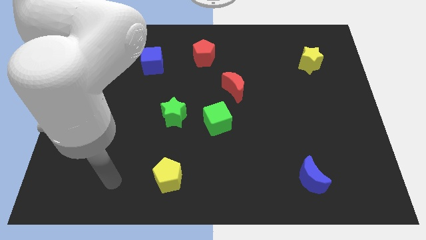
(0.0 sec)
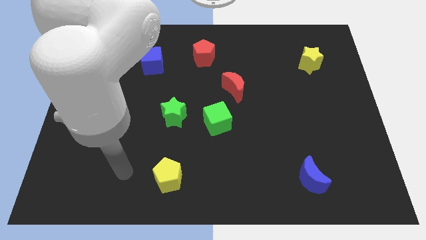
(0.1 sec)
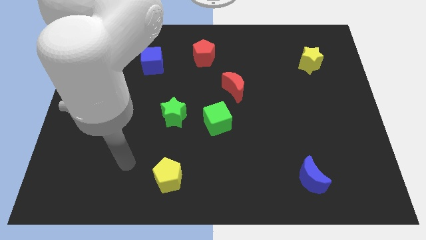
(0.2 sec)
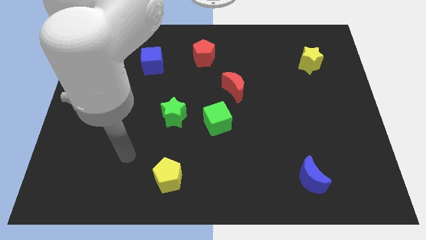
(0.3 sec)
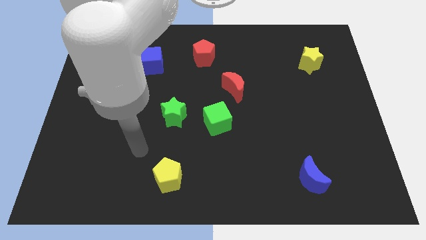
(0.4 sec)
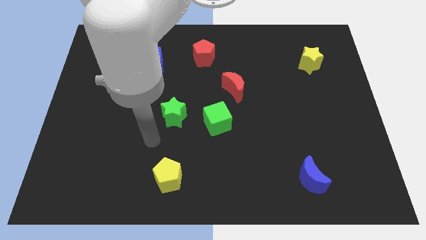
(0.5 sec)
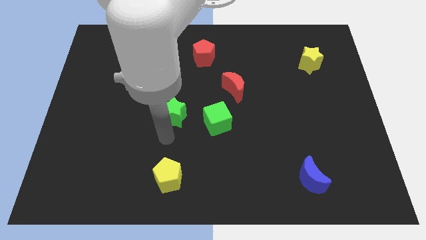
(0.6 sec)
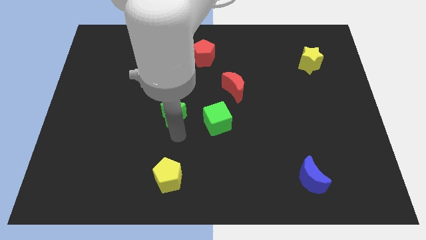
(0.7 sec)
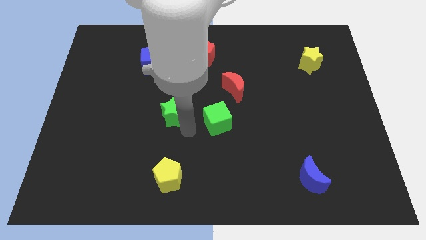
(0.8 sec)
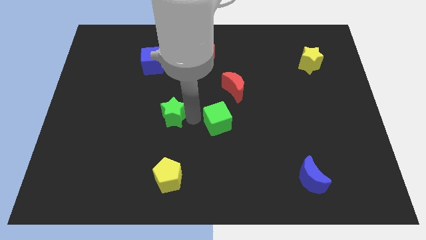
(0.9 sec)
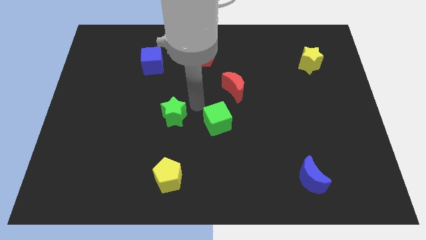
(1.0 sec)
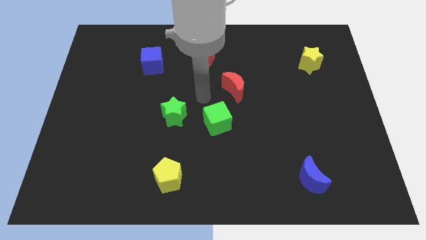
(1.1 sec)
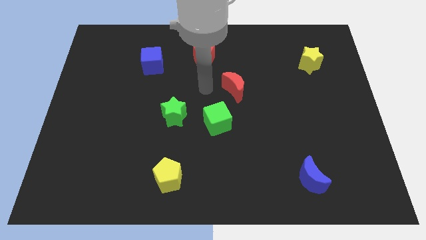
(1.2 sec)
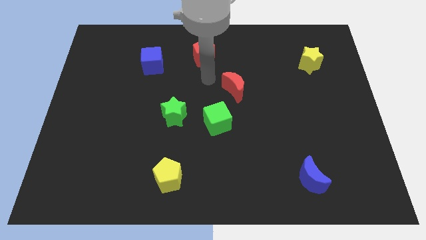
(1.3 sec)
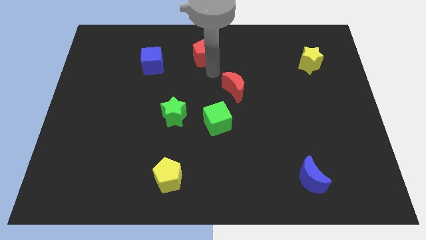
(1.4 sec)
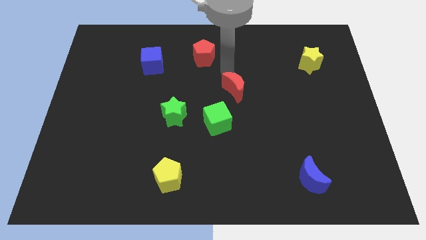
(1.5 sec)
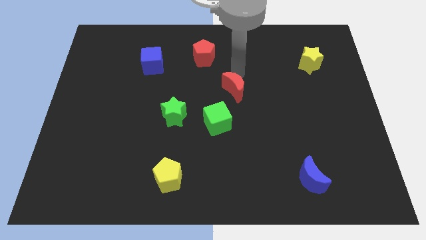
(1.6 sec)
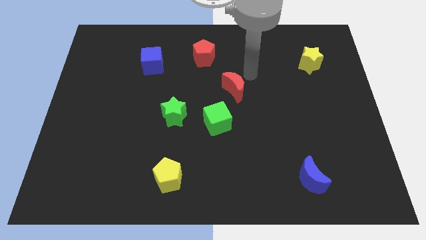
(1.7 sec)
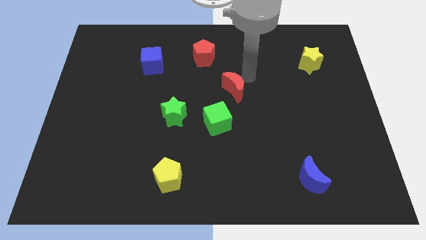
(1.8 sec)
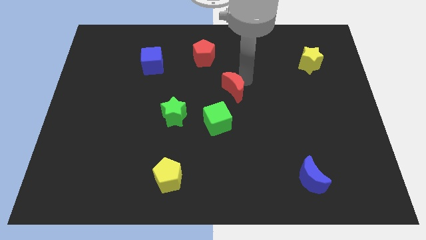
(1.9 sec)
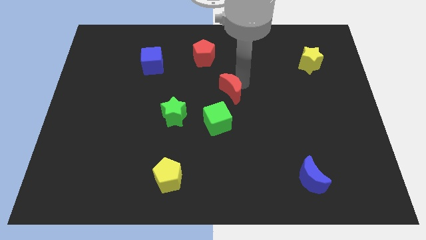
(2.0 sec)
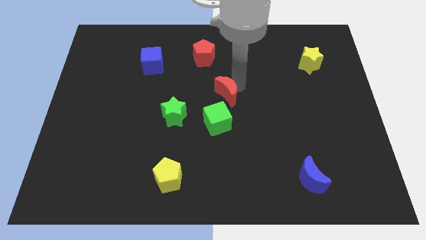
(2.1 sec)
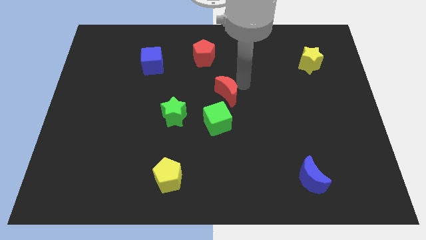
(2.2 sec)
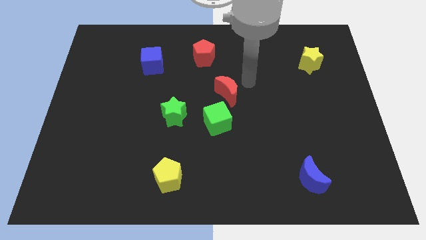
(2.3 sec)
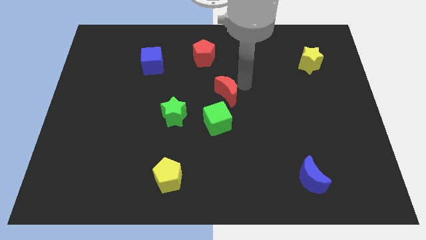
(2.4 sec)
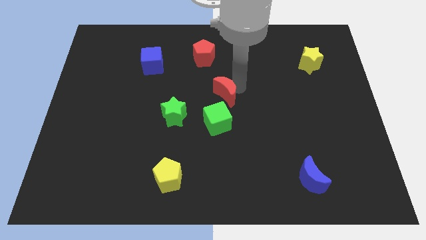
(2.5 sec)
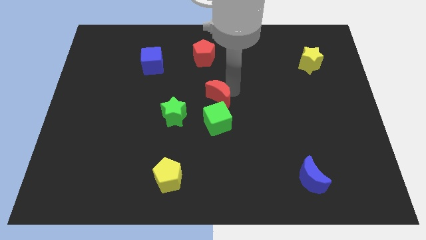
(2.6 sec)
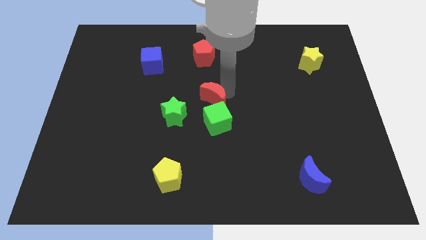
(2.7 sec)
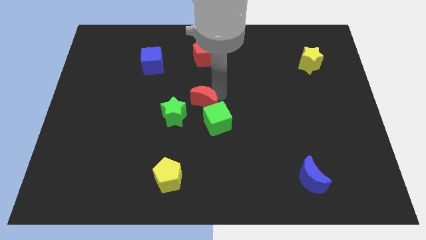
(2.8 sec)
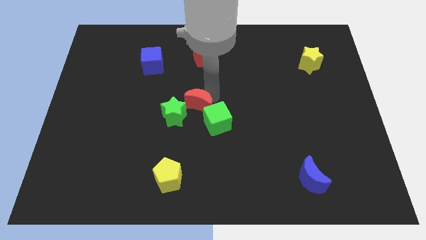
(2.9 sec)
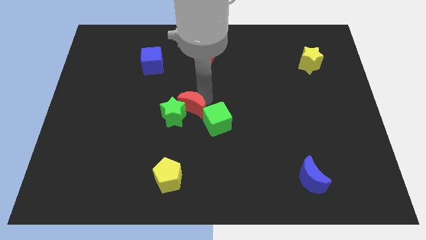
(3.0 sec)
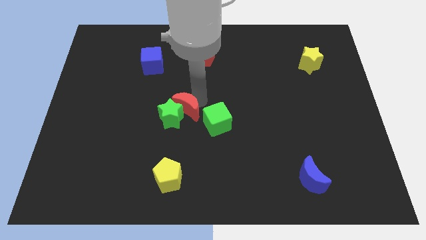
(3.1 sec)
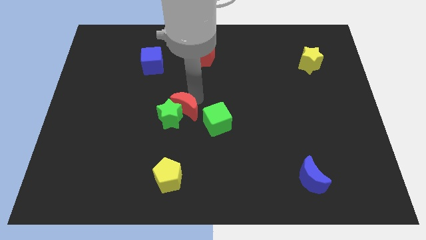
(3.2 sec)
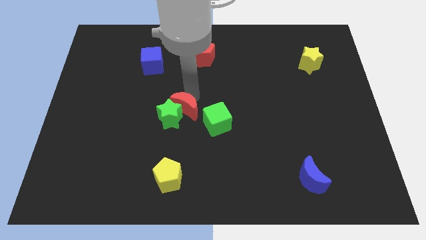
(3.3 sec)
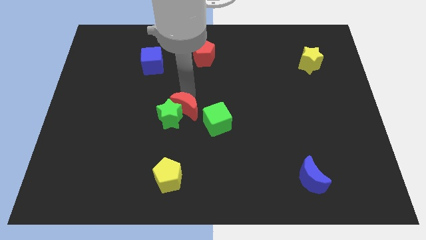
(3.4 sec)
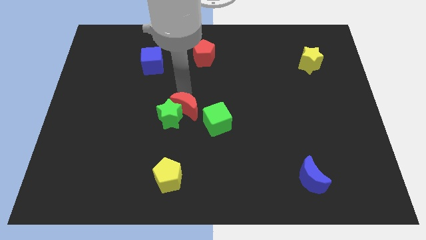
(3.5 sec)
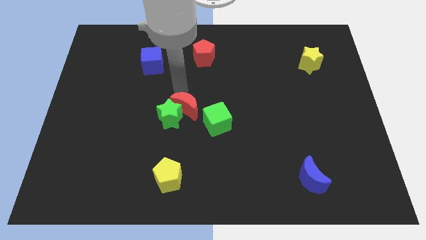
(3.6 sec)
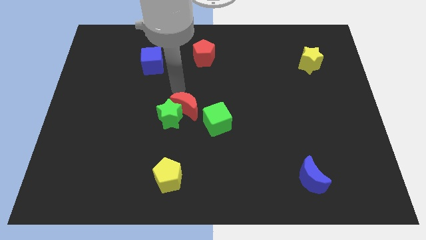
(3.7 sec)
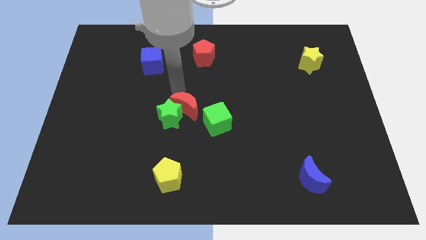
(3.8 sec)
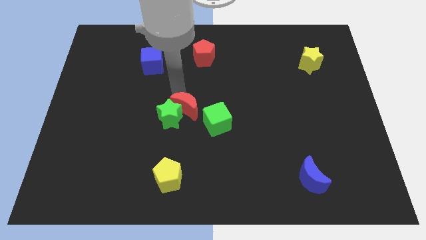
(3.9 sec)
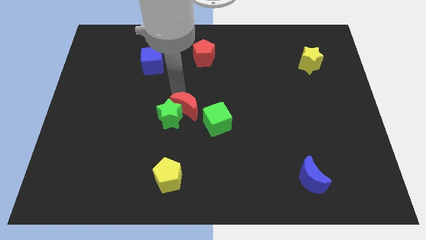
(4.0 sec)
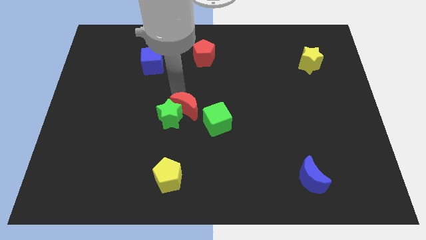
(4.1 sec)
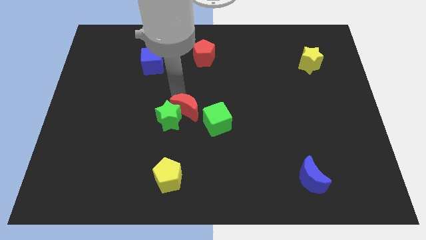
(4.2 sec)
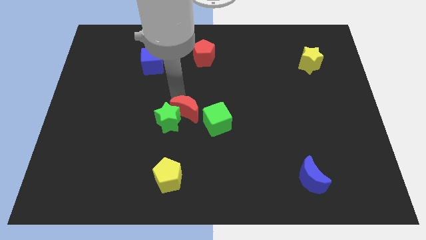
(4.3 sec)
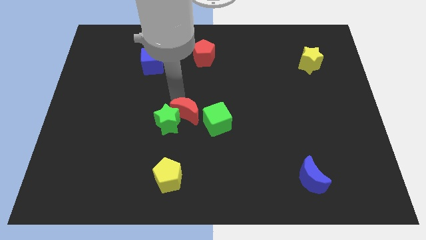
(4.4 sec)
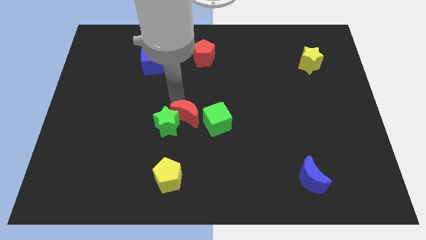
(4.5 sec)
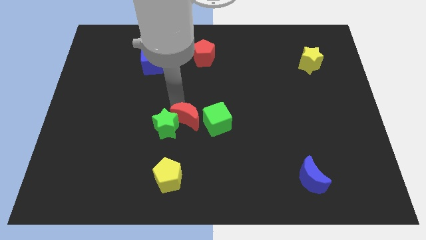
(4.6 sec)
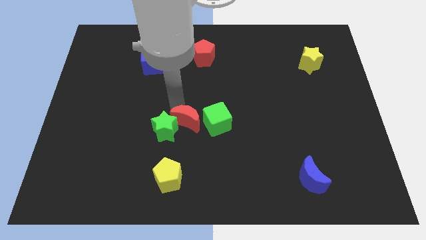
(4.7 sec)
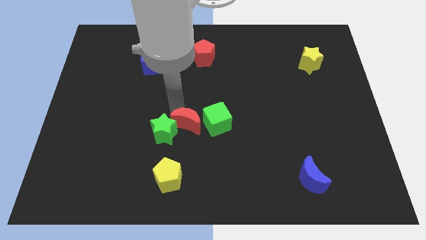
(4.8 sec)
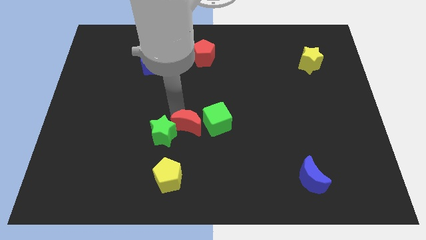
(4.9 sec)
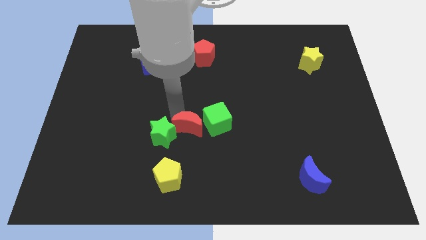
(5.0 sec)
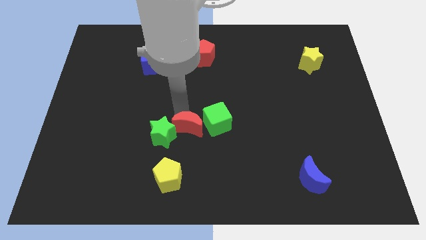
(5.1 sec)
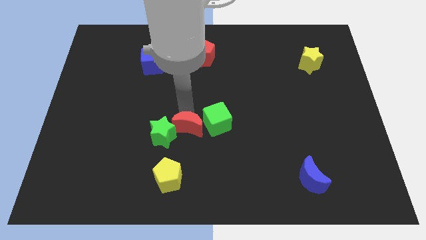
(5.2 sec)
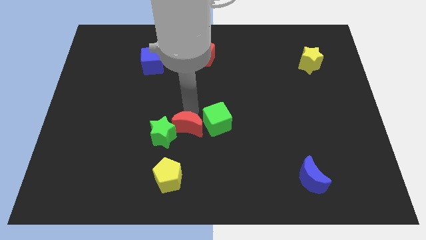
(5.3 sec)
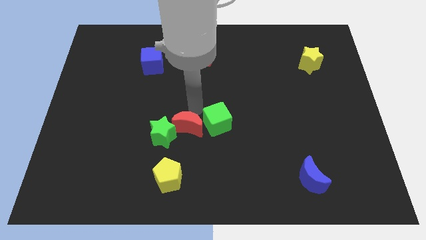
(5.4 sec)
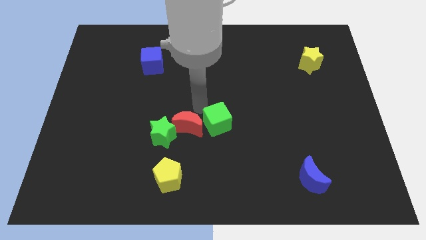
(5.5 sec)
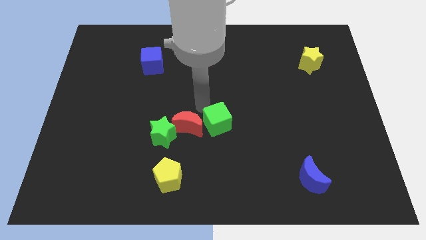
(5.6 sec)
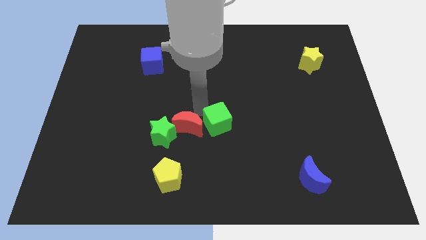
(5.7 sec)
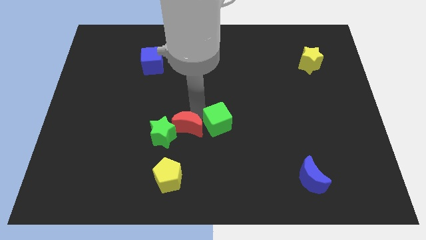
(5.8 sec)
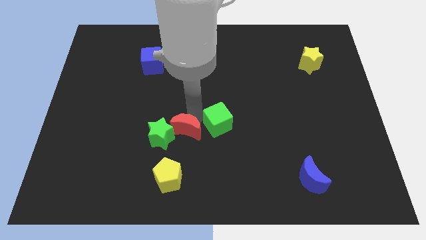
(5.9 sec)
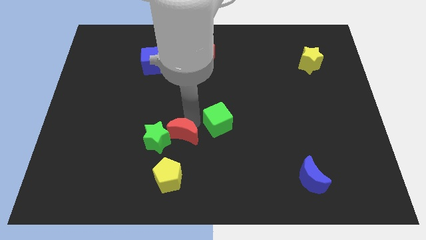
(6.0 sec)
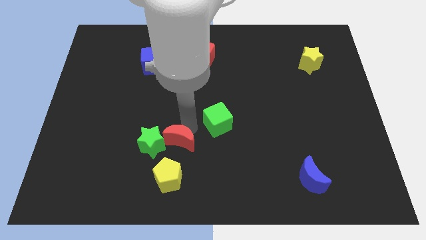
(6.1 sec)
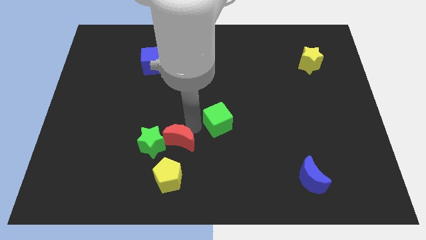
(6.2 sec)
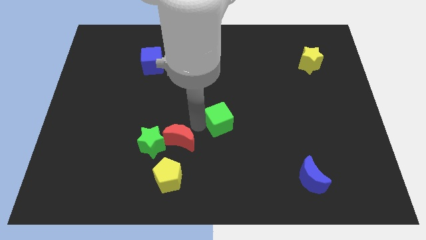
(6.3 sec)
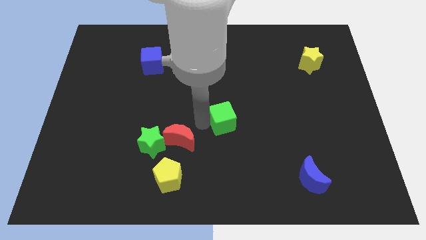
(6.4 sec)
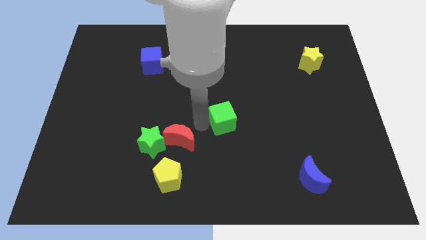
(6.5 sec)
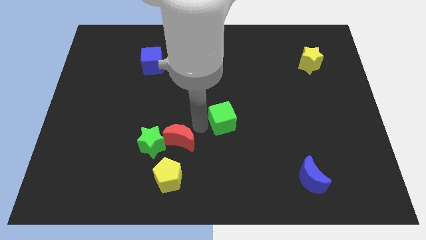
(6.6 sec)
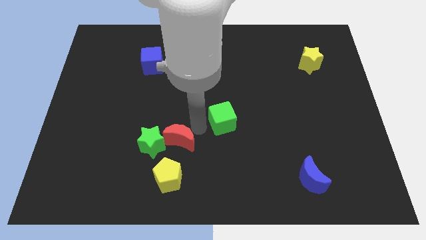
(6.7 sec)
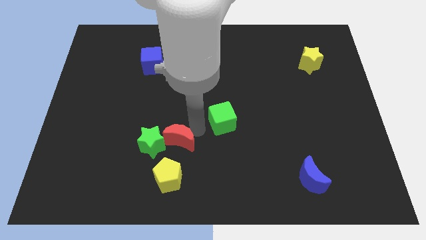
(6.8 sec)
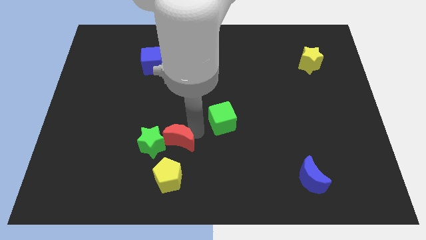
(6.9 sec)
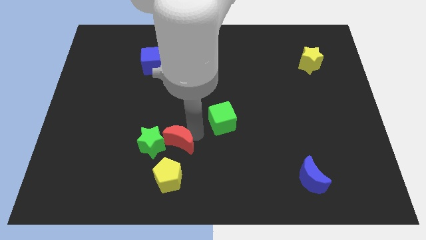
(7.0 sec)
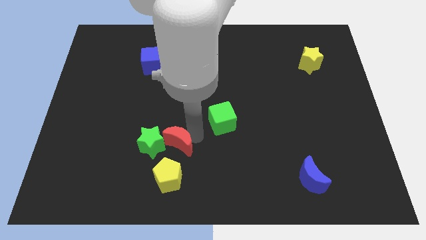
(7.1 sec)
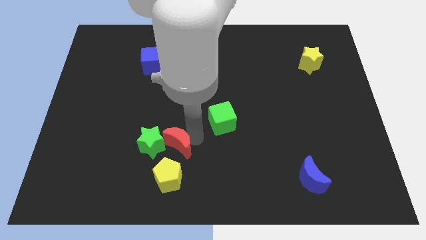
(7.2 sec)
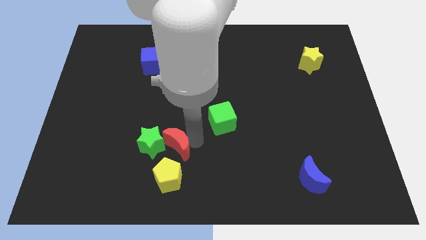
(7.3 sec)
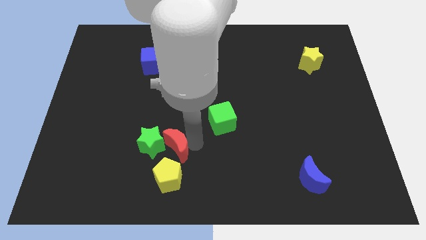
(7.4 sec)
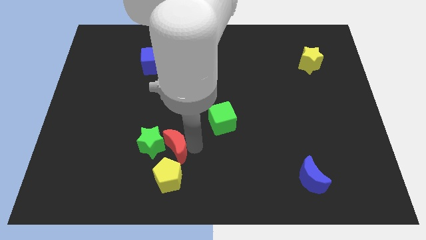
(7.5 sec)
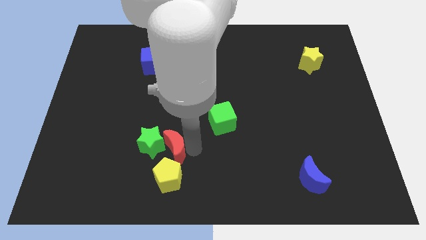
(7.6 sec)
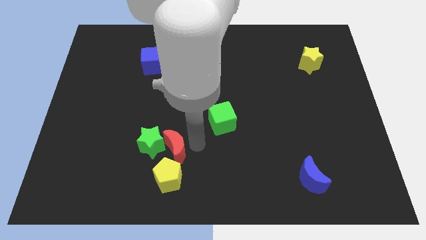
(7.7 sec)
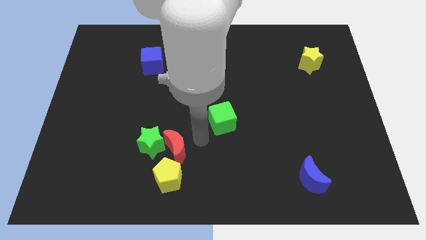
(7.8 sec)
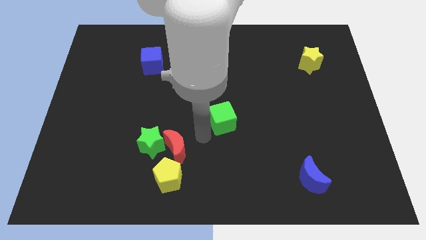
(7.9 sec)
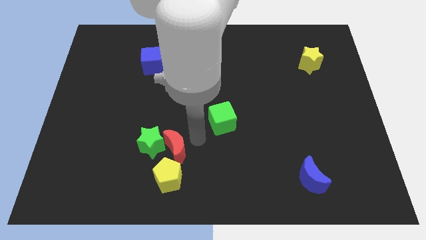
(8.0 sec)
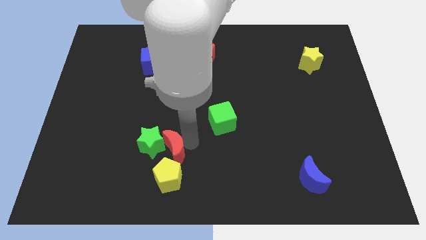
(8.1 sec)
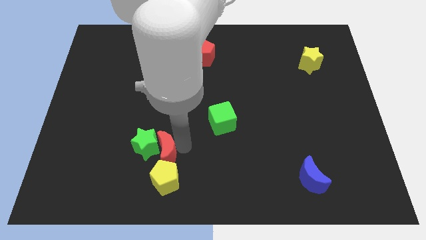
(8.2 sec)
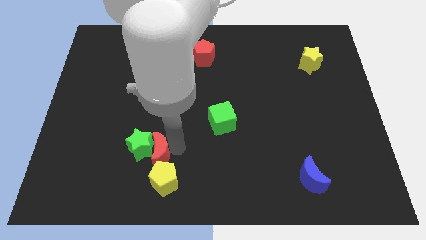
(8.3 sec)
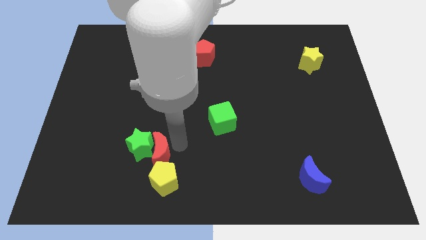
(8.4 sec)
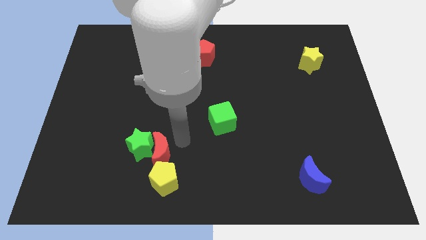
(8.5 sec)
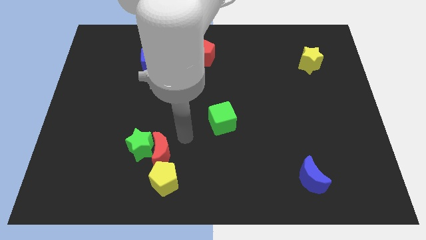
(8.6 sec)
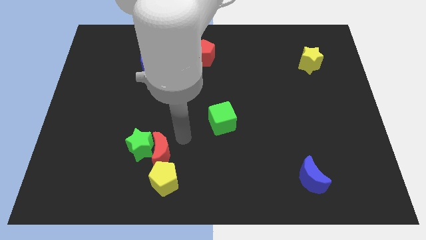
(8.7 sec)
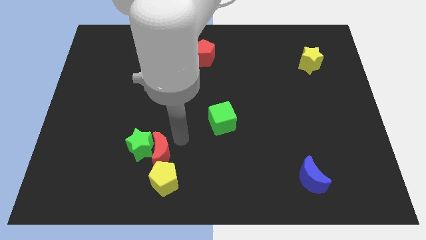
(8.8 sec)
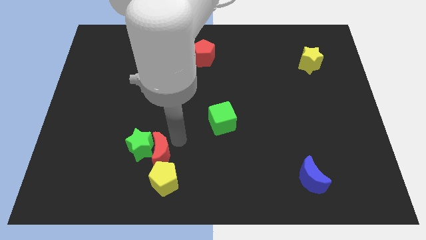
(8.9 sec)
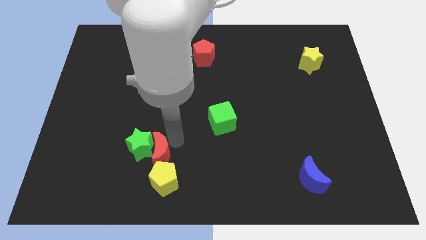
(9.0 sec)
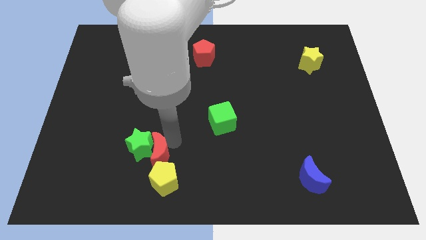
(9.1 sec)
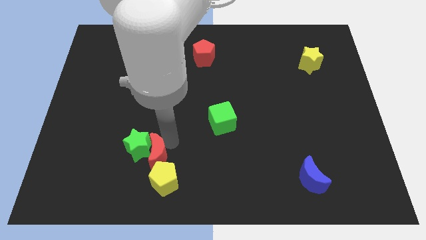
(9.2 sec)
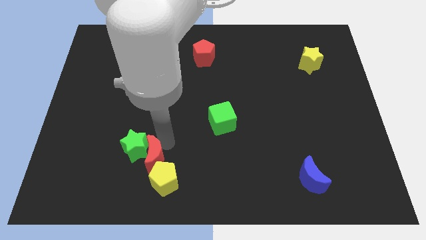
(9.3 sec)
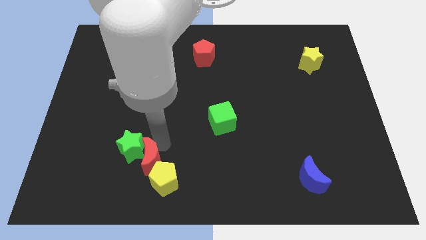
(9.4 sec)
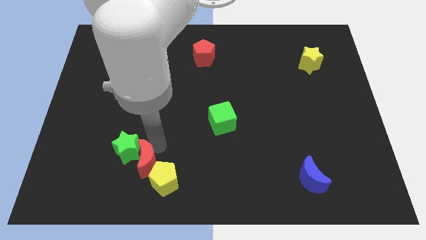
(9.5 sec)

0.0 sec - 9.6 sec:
put the red moon to the left of the yellow pentagon
